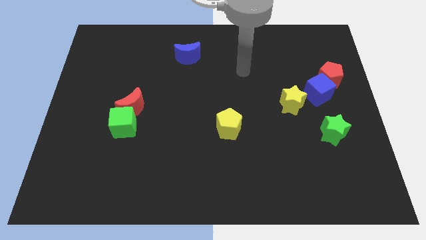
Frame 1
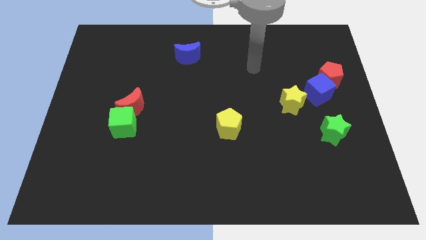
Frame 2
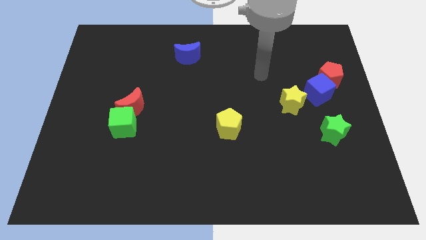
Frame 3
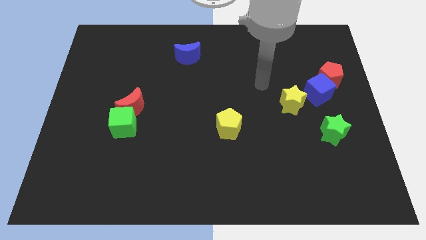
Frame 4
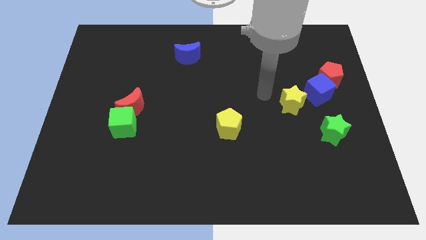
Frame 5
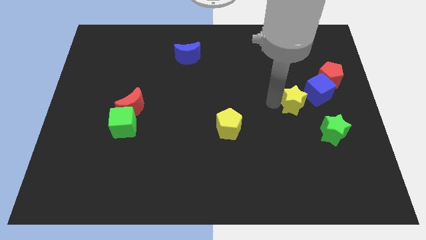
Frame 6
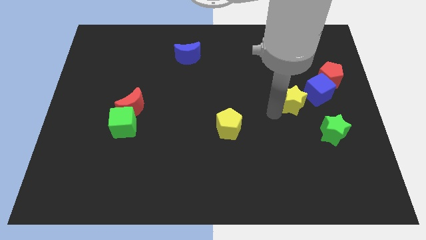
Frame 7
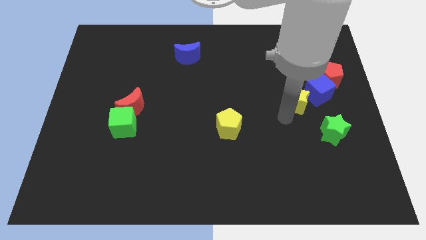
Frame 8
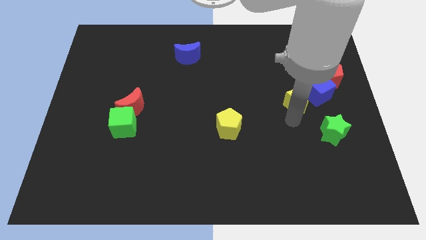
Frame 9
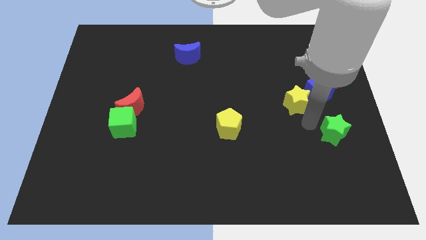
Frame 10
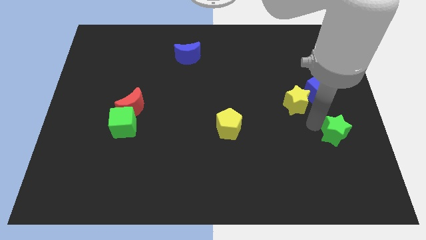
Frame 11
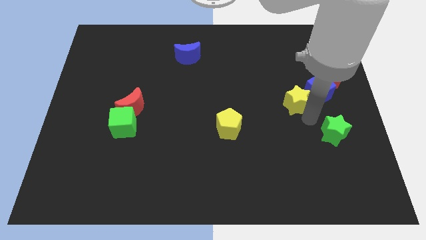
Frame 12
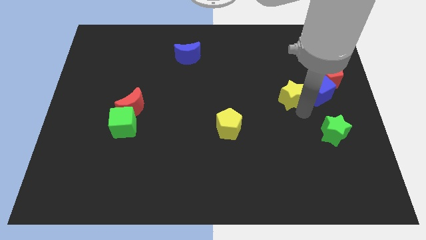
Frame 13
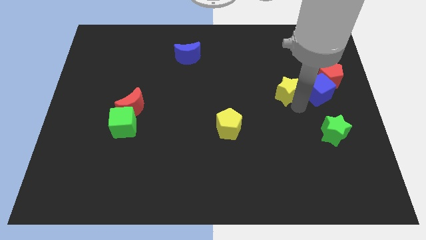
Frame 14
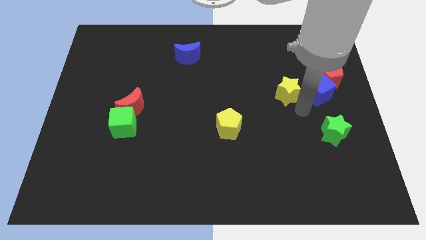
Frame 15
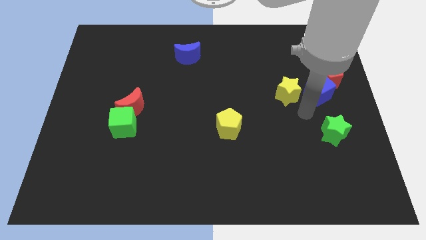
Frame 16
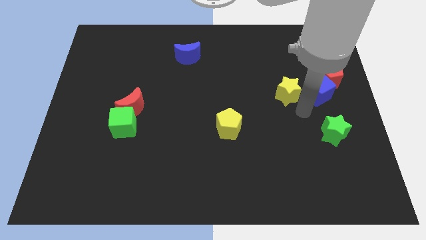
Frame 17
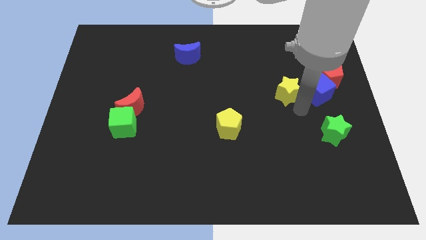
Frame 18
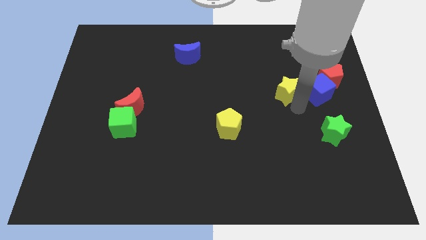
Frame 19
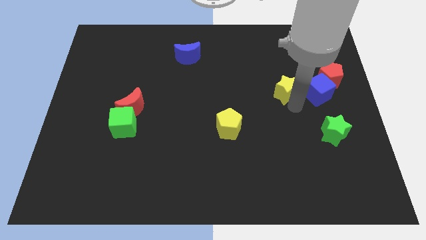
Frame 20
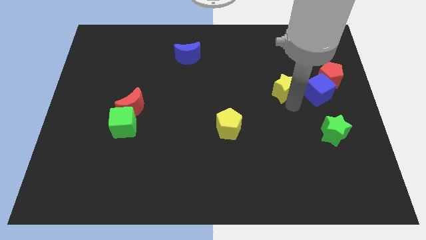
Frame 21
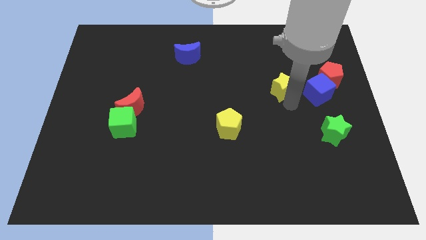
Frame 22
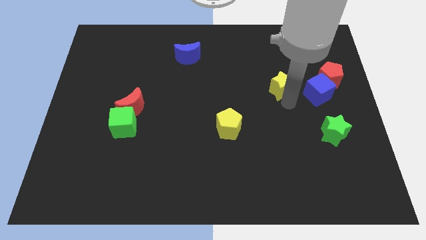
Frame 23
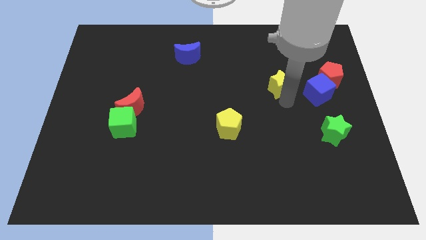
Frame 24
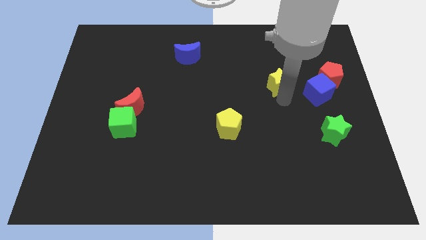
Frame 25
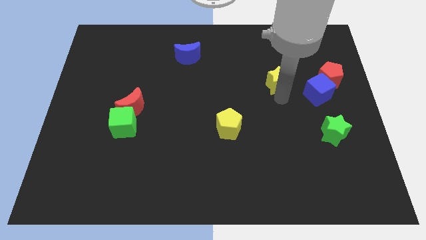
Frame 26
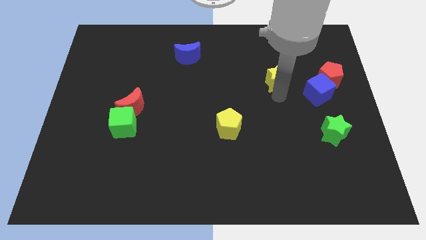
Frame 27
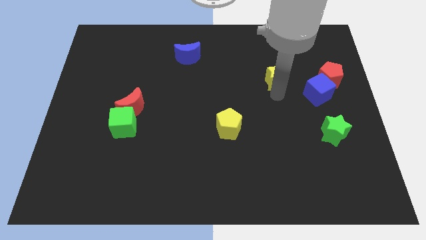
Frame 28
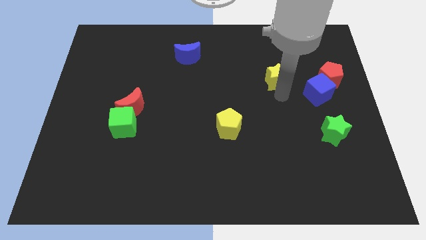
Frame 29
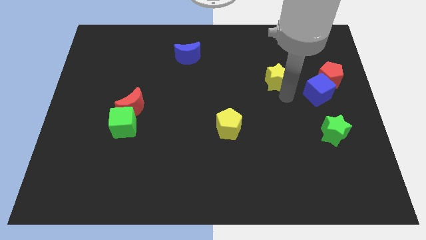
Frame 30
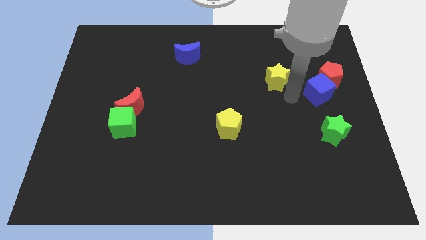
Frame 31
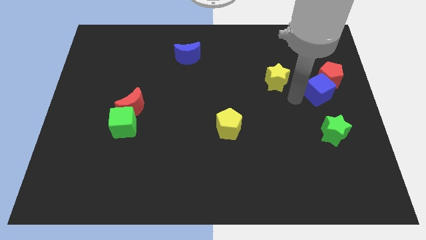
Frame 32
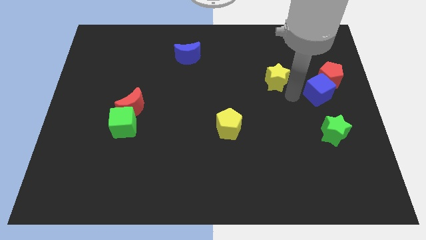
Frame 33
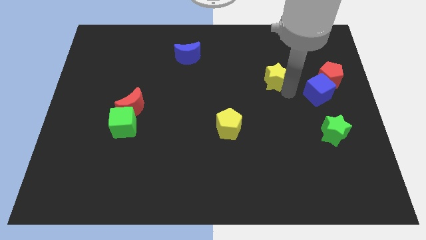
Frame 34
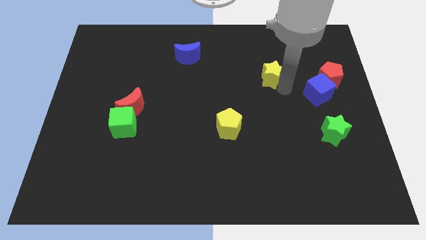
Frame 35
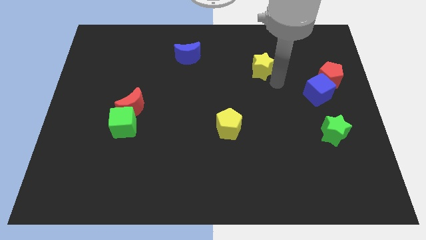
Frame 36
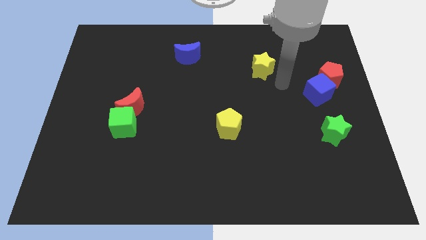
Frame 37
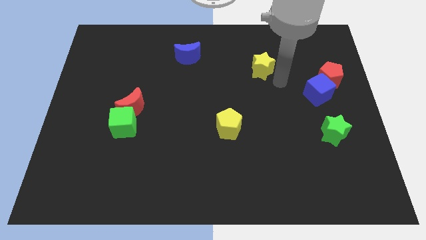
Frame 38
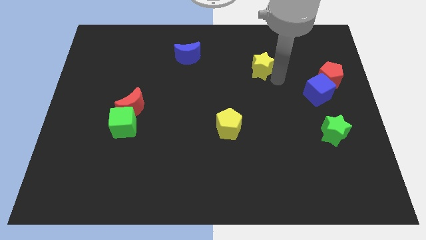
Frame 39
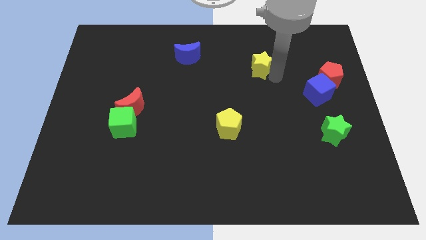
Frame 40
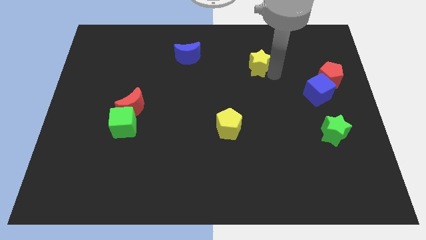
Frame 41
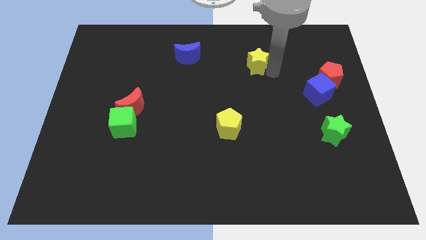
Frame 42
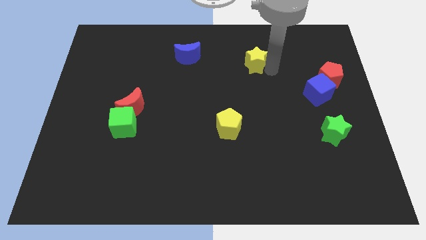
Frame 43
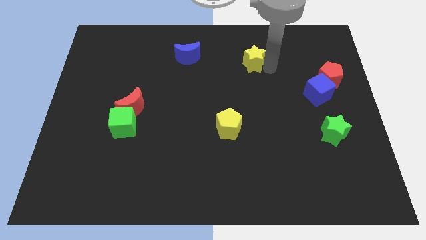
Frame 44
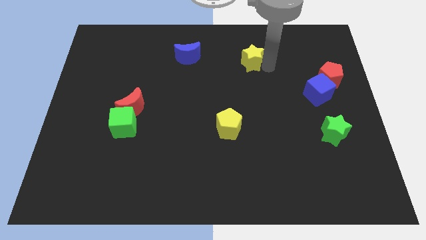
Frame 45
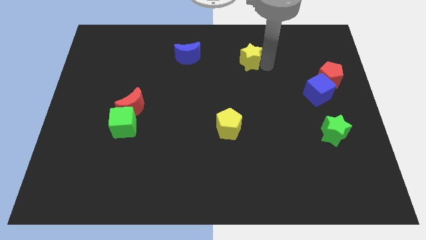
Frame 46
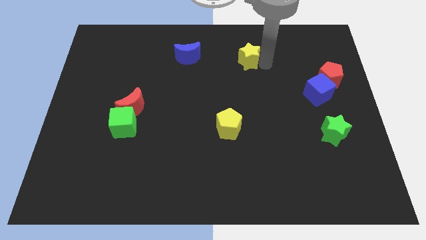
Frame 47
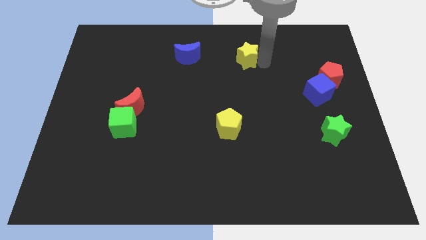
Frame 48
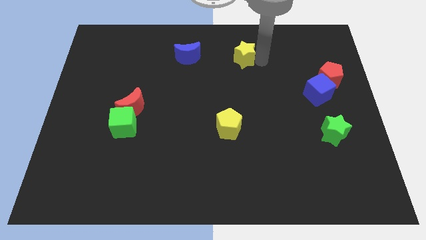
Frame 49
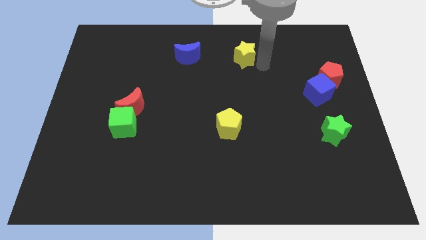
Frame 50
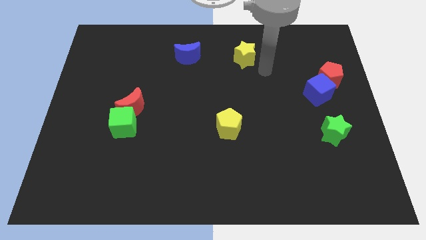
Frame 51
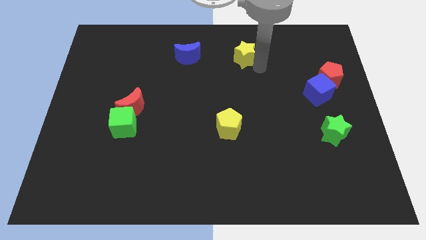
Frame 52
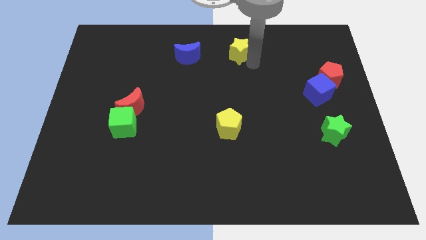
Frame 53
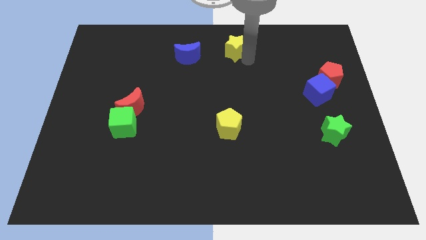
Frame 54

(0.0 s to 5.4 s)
put the yellow star to the top side

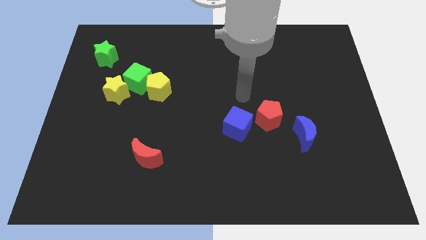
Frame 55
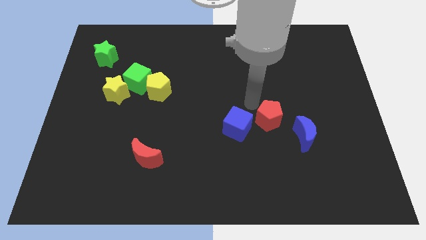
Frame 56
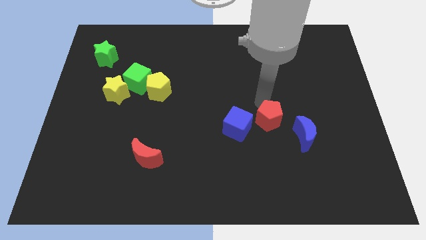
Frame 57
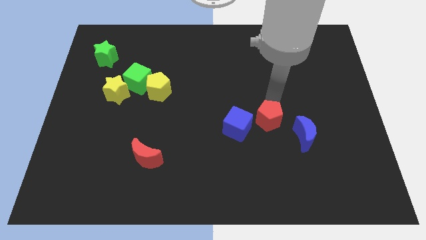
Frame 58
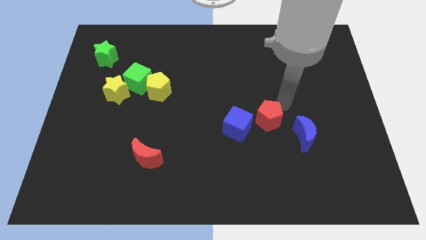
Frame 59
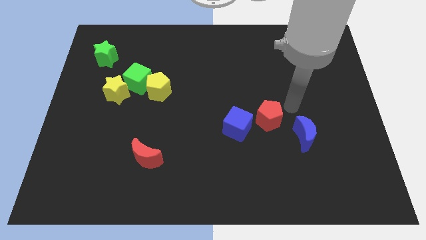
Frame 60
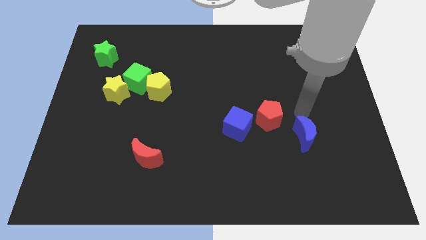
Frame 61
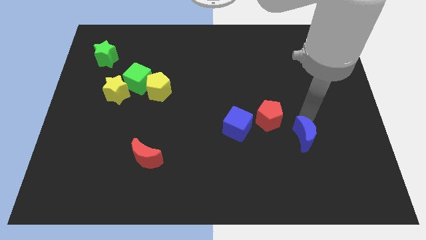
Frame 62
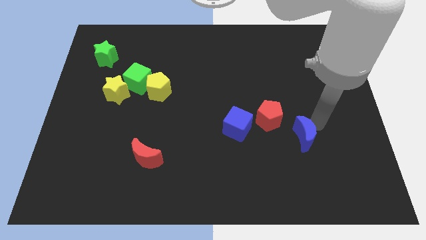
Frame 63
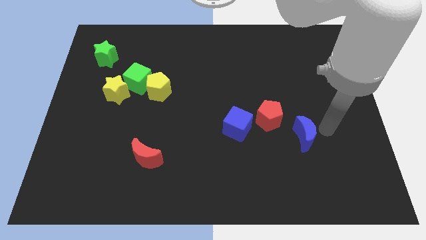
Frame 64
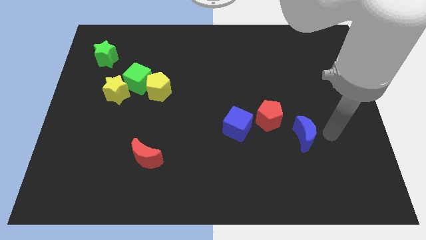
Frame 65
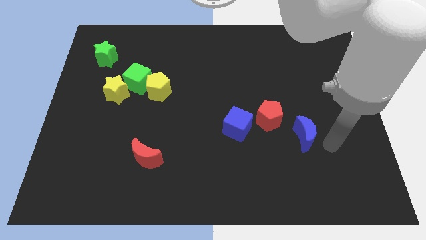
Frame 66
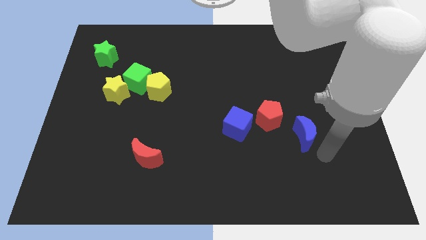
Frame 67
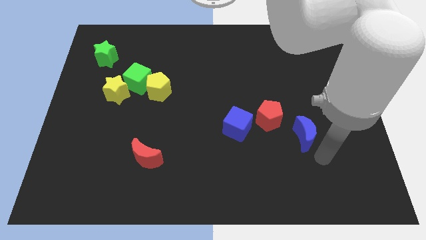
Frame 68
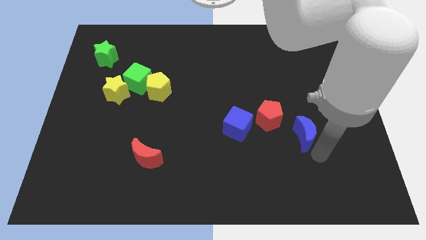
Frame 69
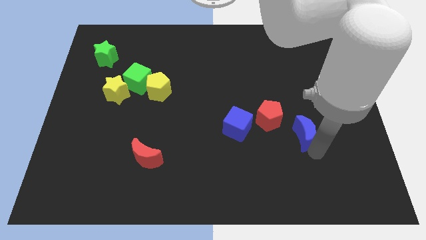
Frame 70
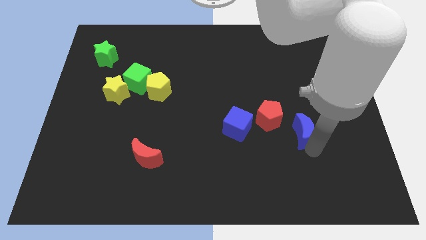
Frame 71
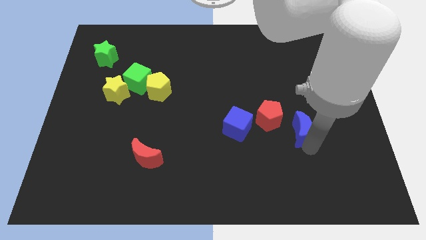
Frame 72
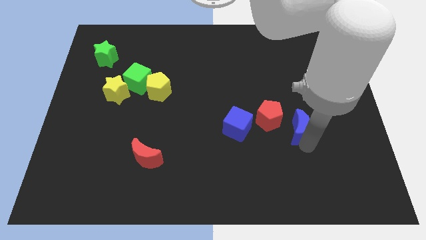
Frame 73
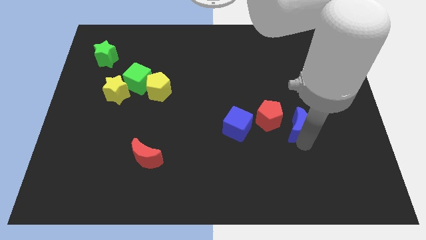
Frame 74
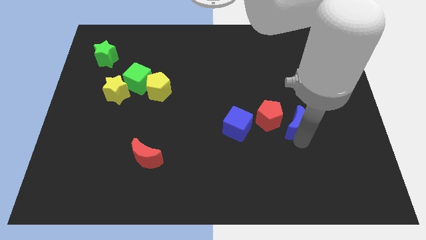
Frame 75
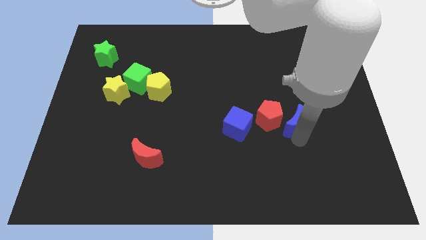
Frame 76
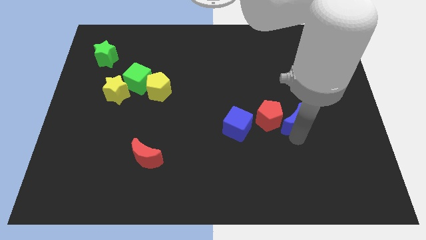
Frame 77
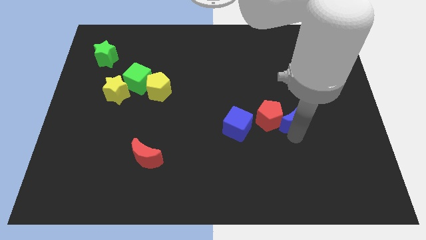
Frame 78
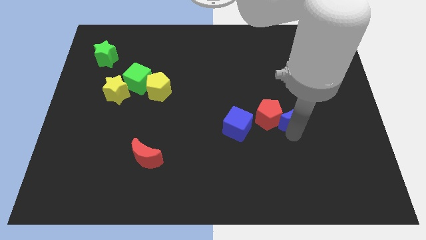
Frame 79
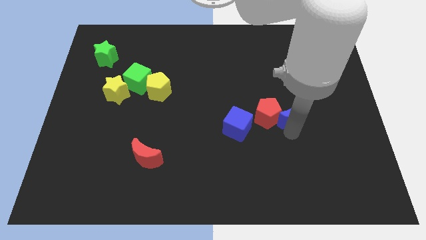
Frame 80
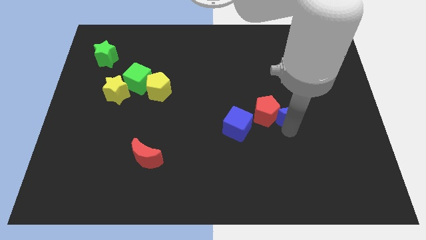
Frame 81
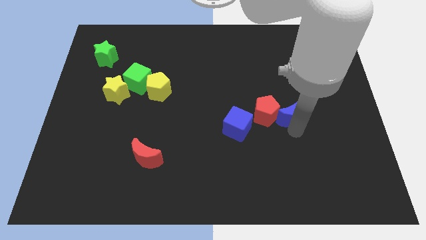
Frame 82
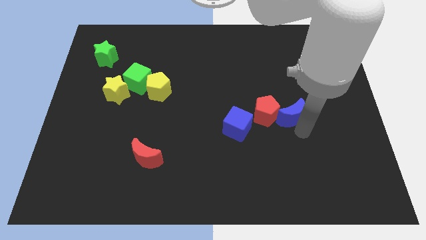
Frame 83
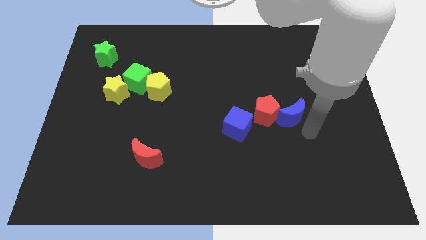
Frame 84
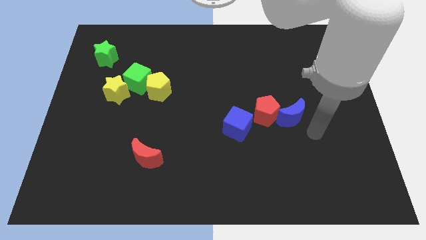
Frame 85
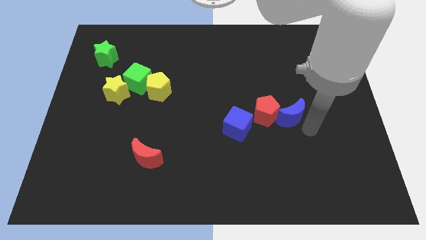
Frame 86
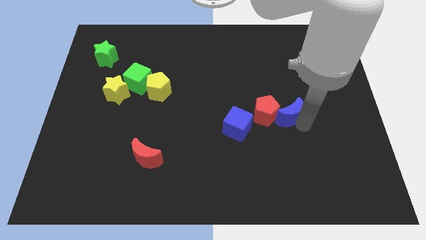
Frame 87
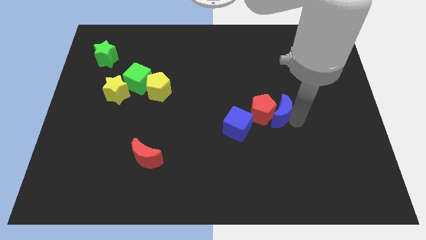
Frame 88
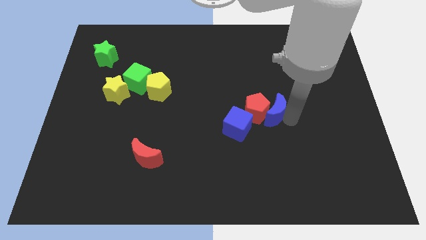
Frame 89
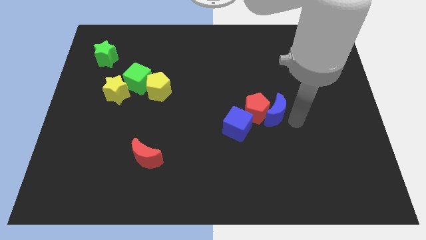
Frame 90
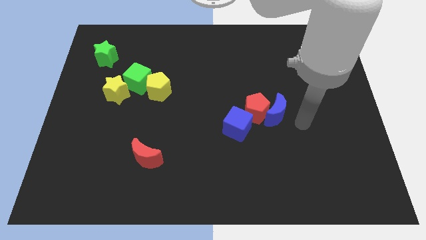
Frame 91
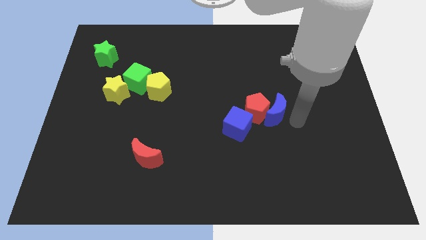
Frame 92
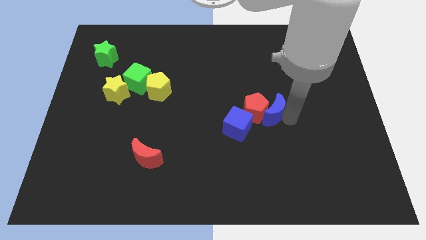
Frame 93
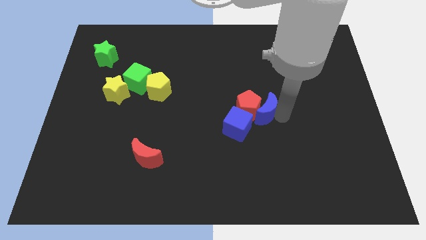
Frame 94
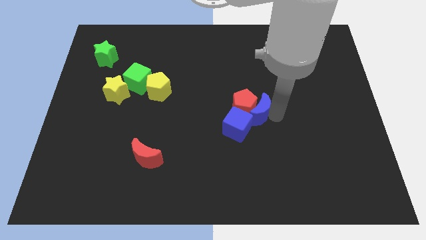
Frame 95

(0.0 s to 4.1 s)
push the blue moon to the middle
